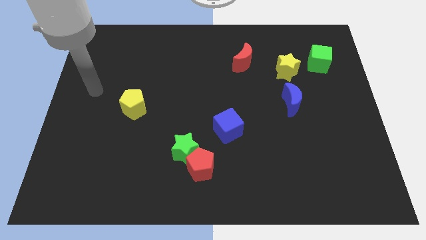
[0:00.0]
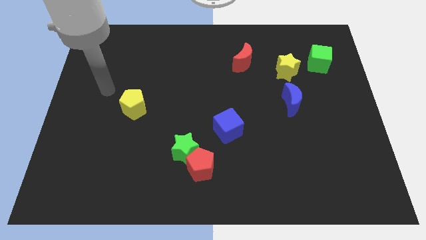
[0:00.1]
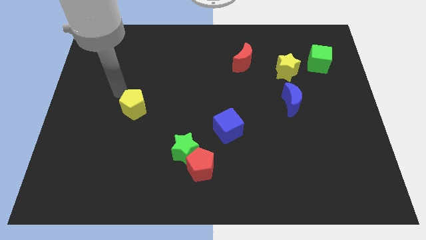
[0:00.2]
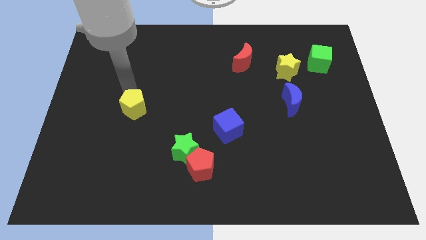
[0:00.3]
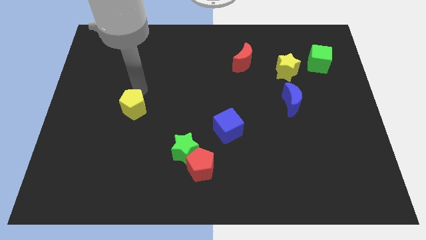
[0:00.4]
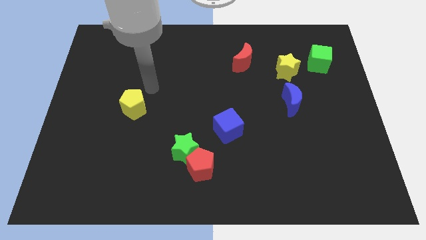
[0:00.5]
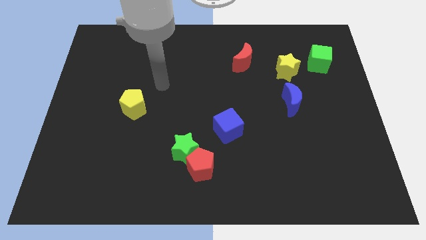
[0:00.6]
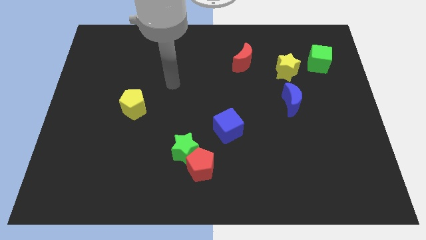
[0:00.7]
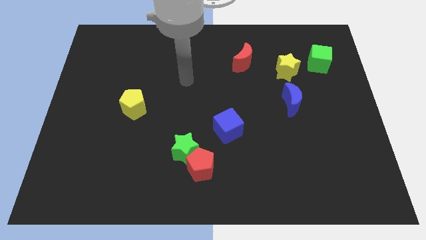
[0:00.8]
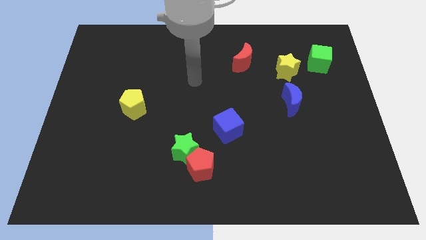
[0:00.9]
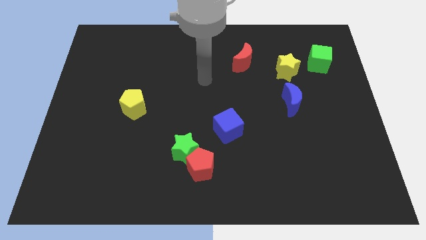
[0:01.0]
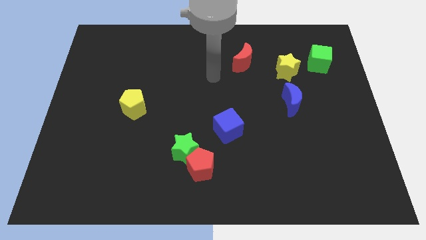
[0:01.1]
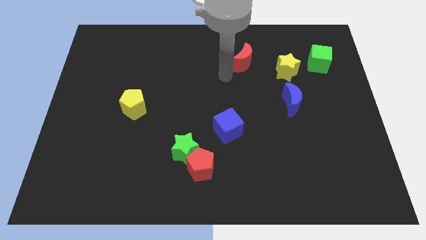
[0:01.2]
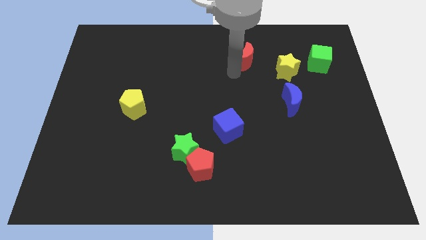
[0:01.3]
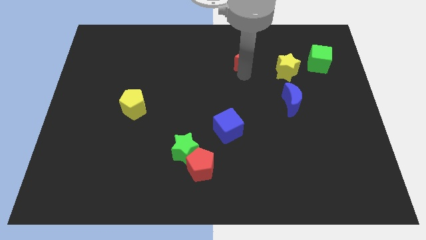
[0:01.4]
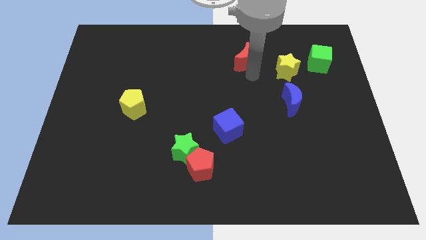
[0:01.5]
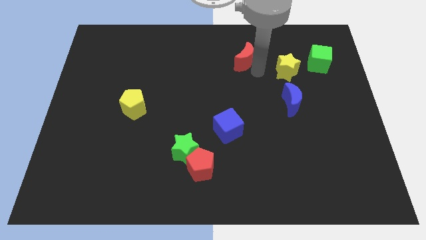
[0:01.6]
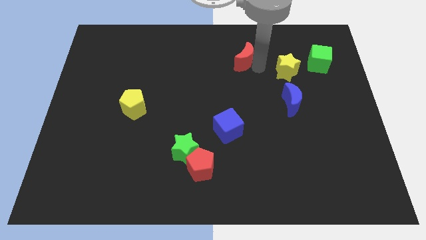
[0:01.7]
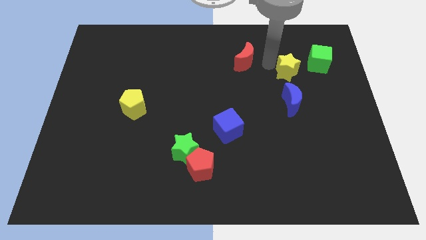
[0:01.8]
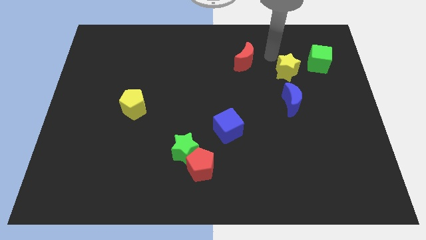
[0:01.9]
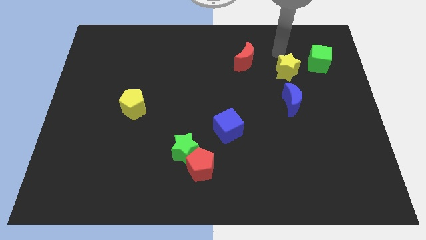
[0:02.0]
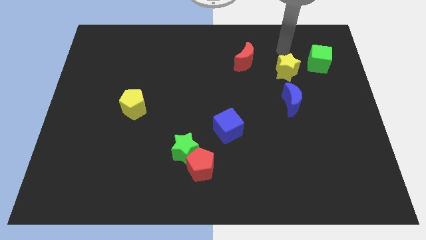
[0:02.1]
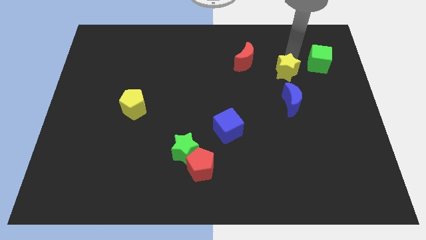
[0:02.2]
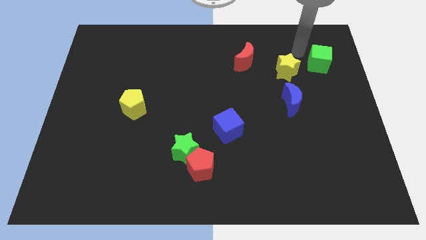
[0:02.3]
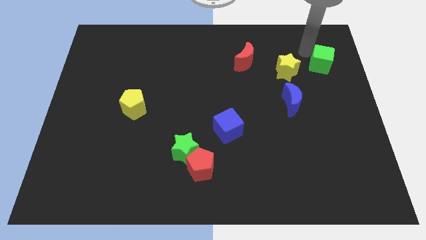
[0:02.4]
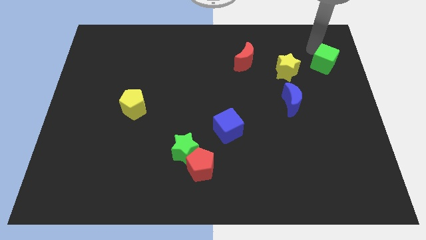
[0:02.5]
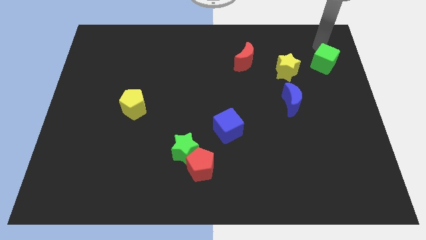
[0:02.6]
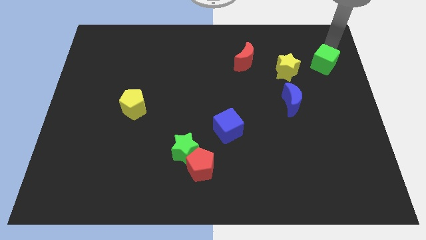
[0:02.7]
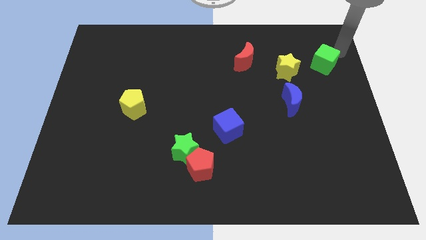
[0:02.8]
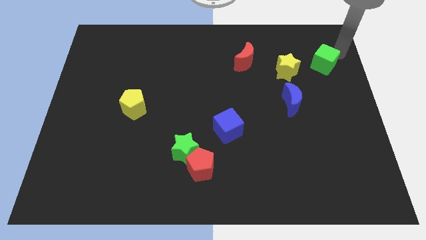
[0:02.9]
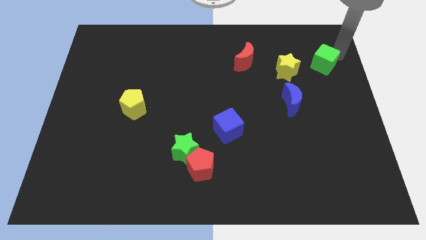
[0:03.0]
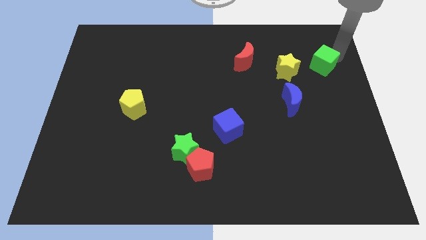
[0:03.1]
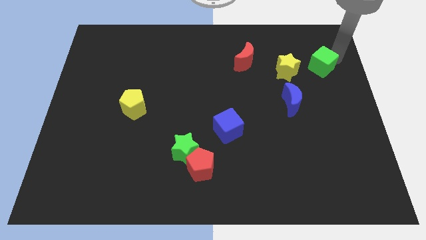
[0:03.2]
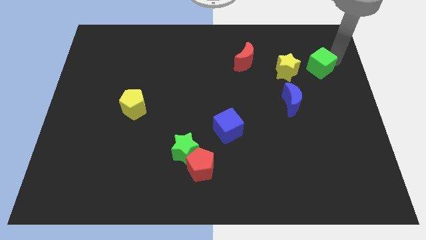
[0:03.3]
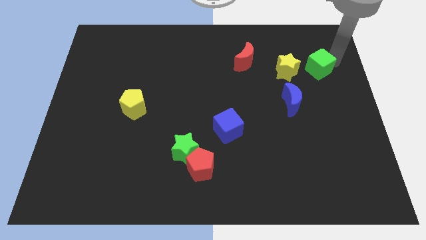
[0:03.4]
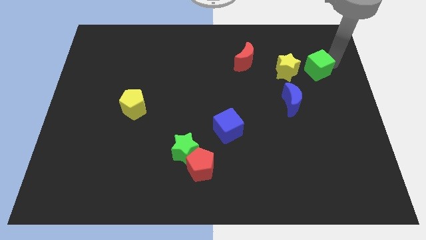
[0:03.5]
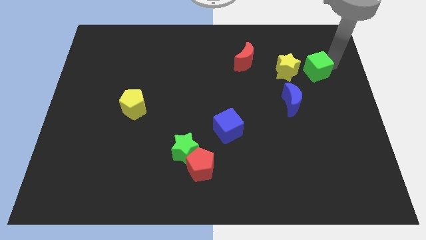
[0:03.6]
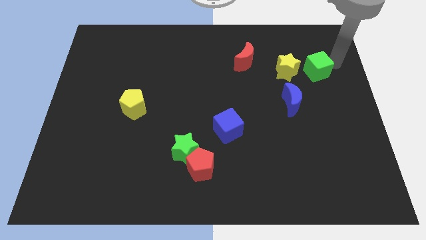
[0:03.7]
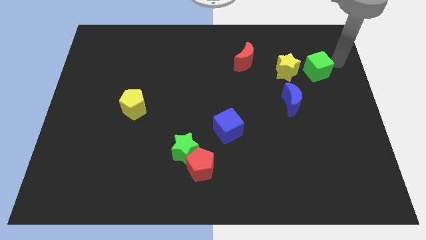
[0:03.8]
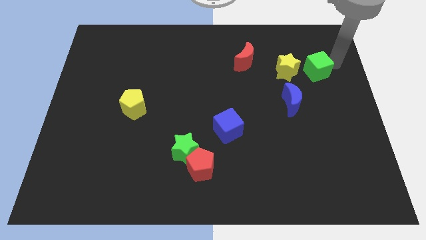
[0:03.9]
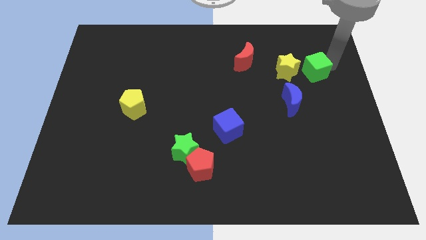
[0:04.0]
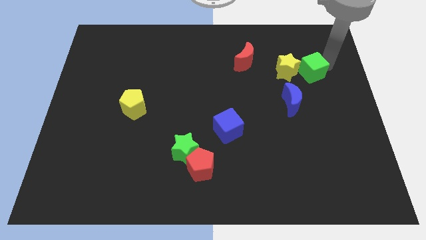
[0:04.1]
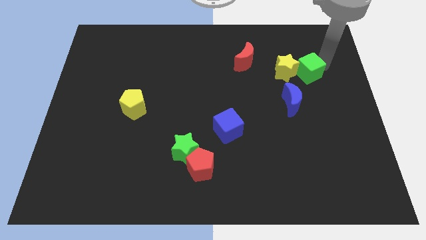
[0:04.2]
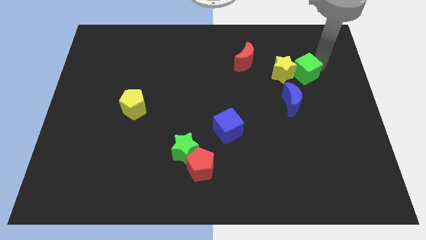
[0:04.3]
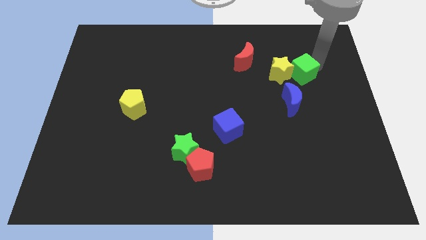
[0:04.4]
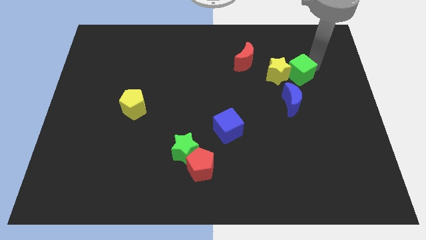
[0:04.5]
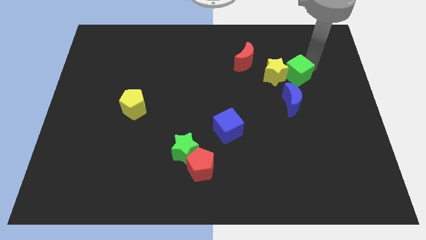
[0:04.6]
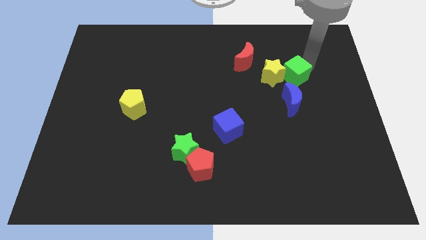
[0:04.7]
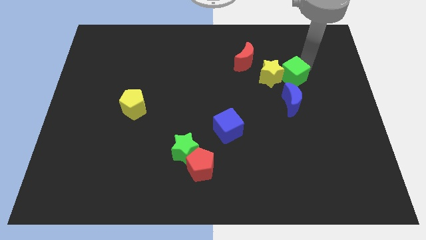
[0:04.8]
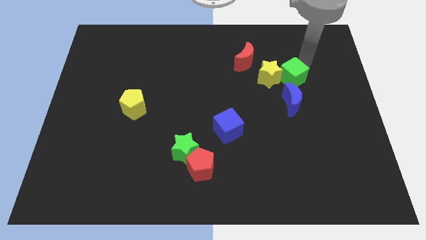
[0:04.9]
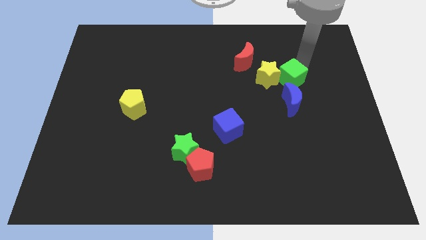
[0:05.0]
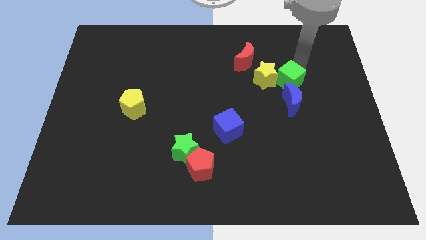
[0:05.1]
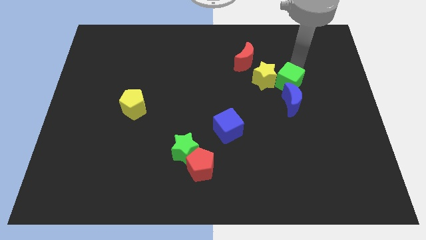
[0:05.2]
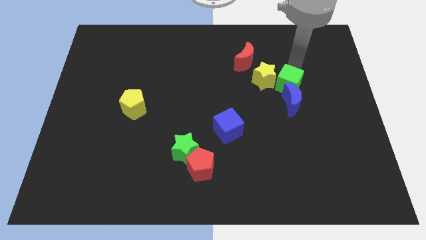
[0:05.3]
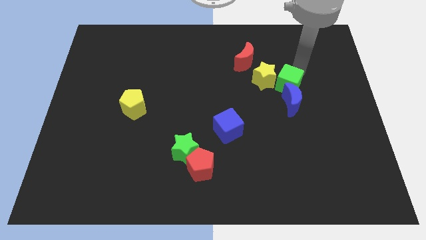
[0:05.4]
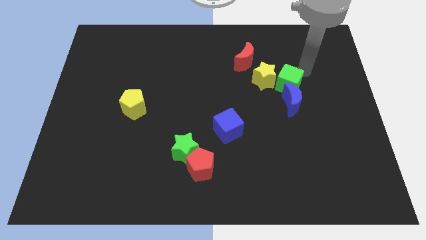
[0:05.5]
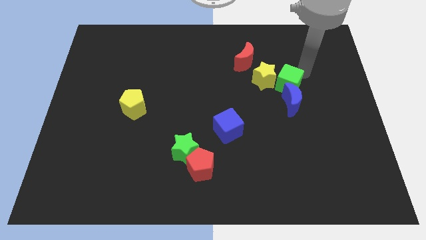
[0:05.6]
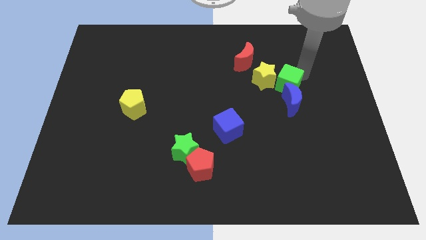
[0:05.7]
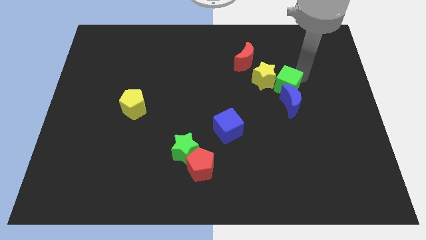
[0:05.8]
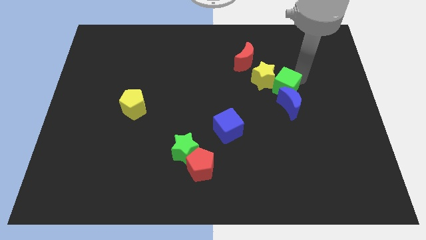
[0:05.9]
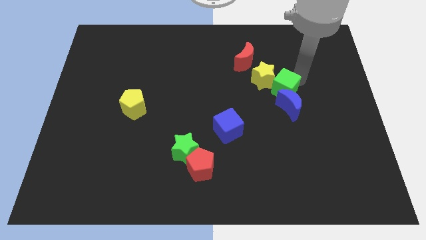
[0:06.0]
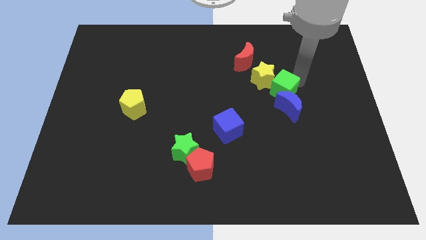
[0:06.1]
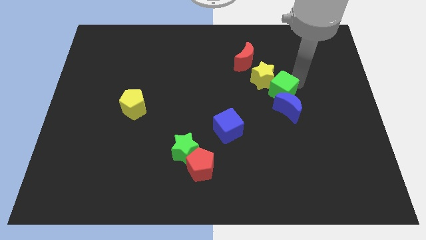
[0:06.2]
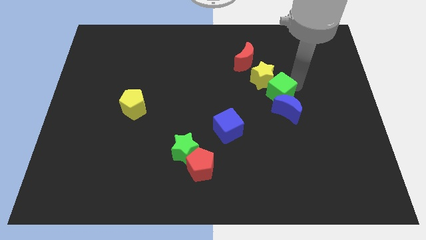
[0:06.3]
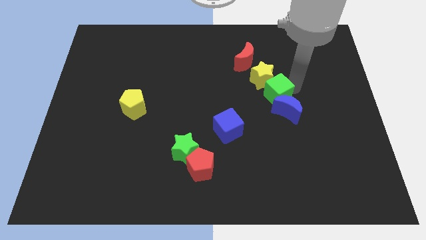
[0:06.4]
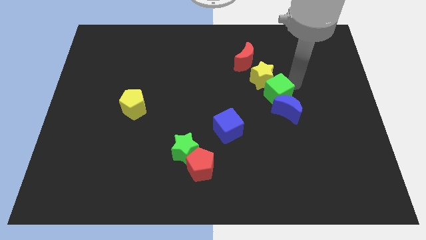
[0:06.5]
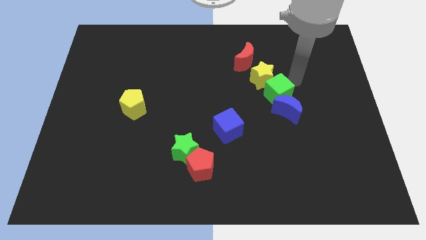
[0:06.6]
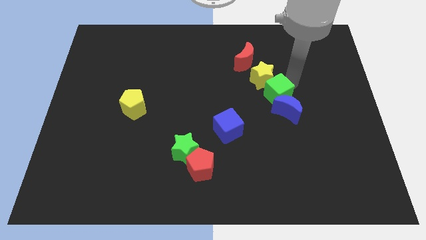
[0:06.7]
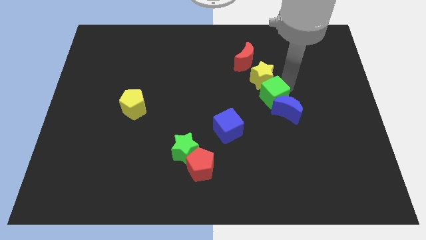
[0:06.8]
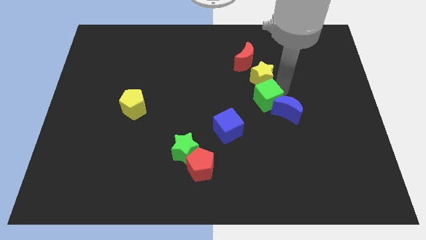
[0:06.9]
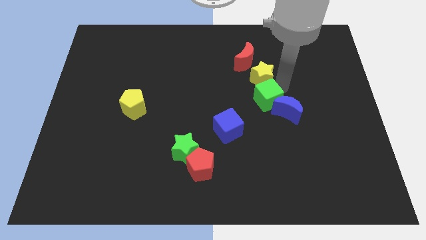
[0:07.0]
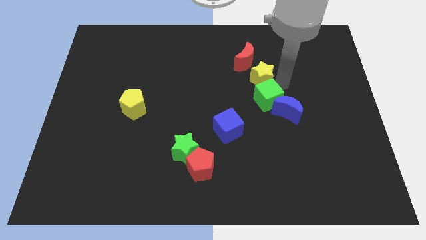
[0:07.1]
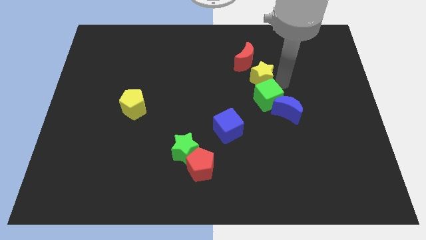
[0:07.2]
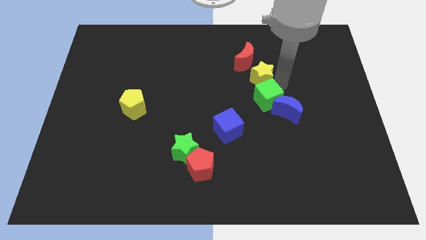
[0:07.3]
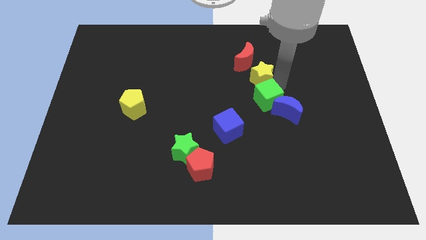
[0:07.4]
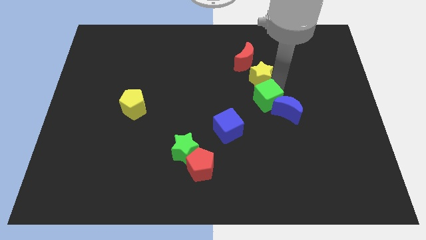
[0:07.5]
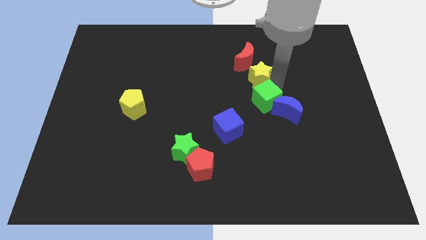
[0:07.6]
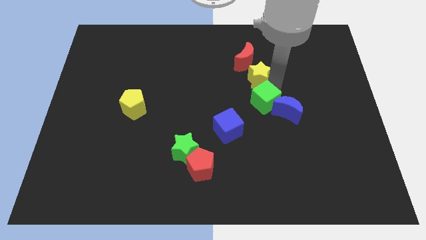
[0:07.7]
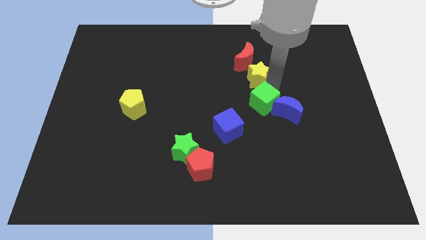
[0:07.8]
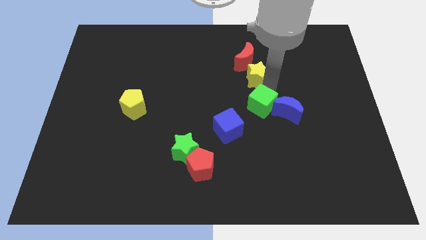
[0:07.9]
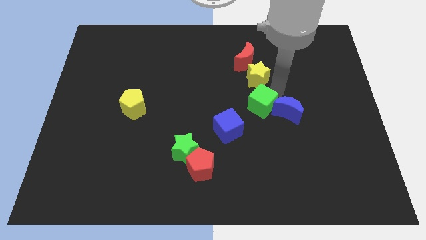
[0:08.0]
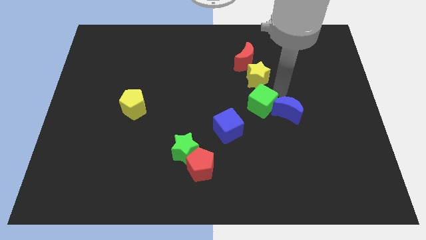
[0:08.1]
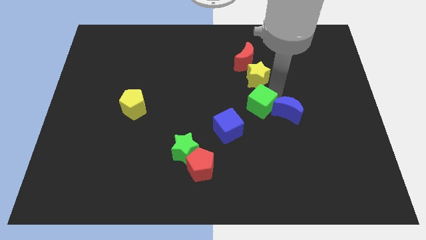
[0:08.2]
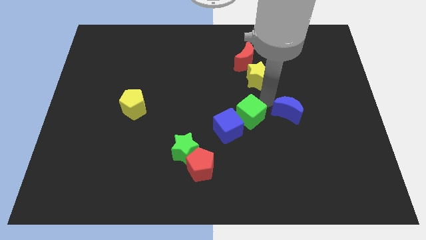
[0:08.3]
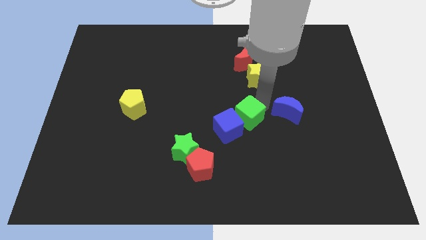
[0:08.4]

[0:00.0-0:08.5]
push the green cube to the blue cube
